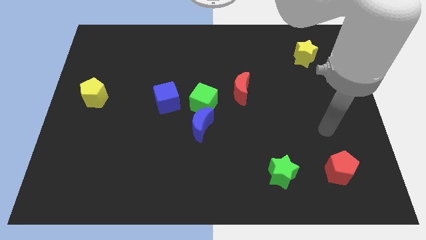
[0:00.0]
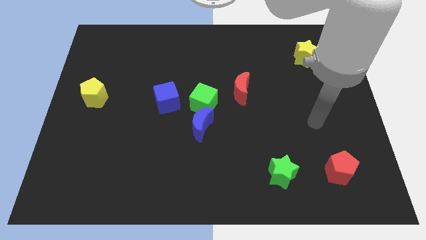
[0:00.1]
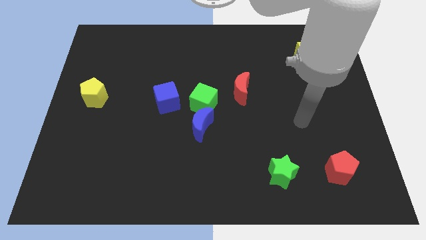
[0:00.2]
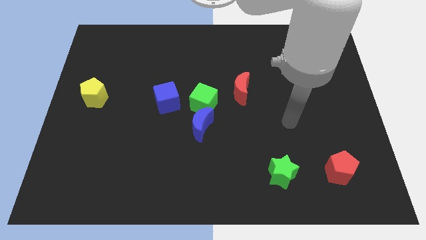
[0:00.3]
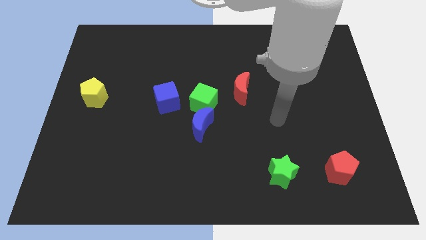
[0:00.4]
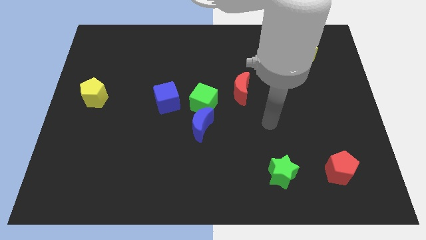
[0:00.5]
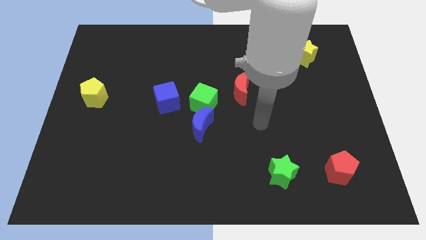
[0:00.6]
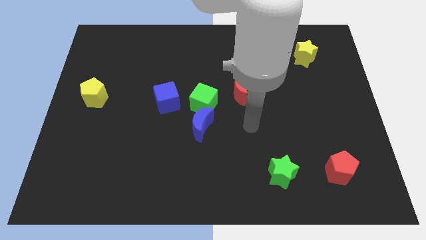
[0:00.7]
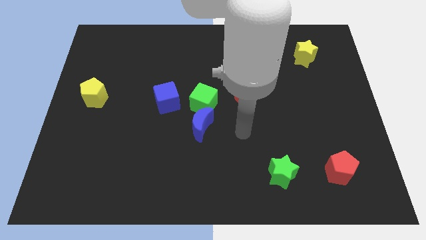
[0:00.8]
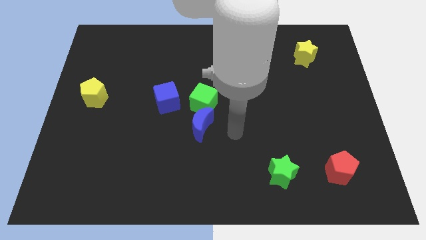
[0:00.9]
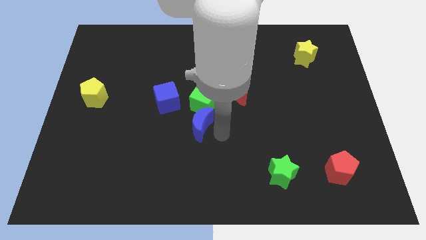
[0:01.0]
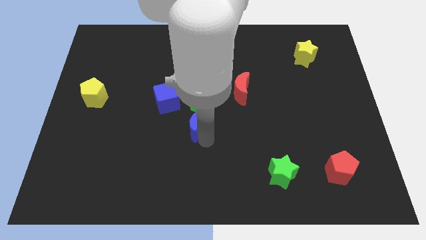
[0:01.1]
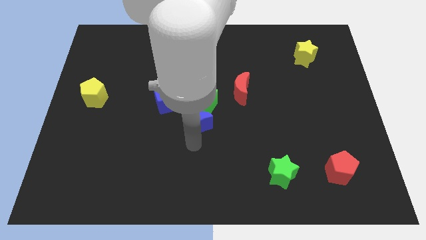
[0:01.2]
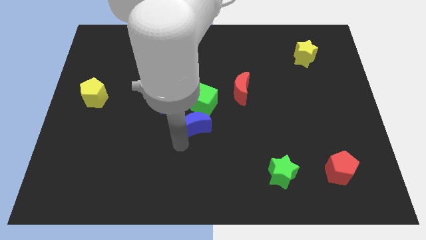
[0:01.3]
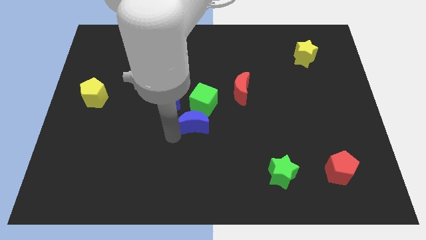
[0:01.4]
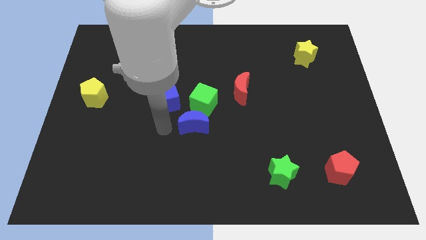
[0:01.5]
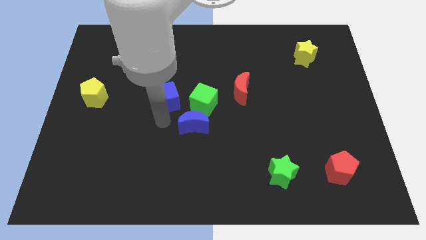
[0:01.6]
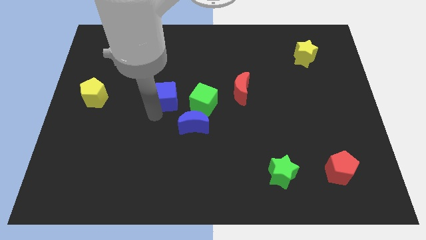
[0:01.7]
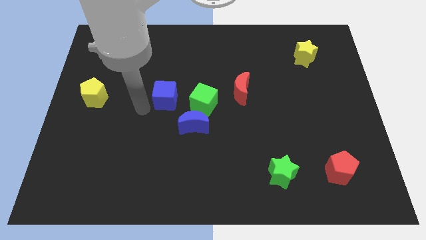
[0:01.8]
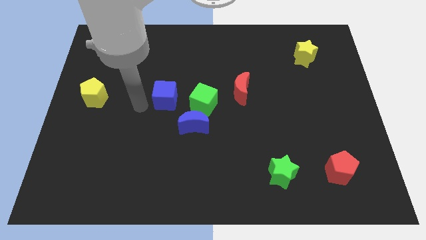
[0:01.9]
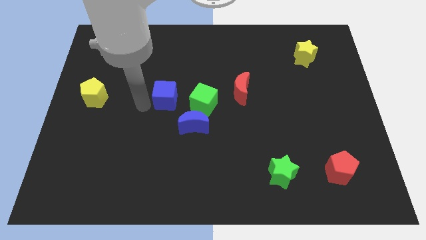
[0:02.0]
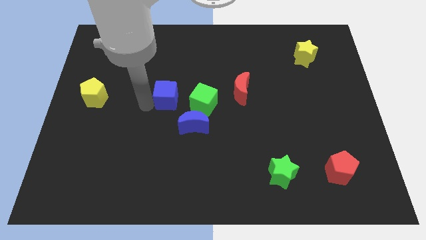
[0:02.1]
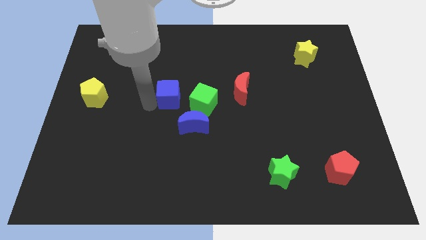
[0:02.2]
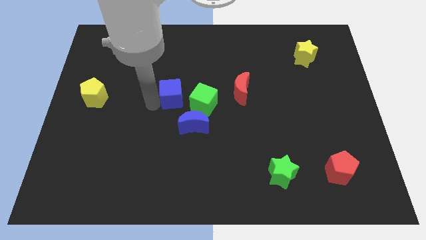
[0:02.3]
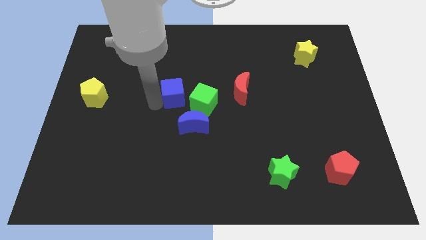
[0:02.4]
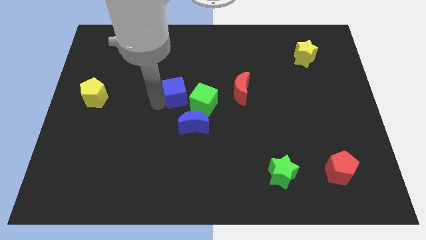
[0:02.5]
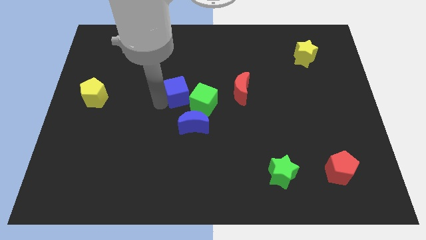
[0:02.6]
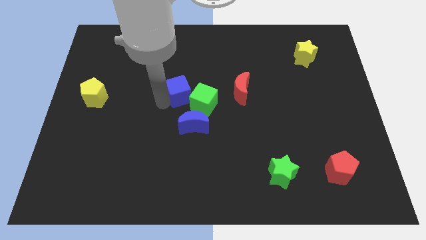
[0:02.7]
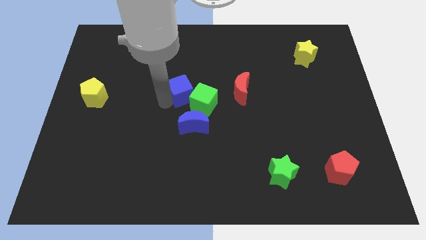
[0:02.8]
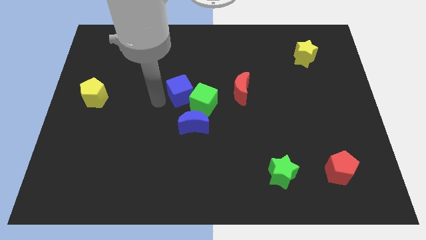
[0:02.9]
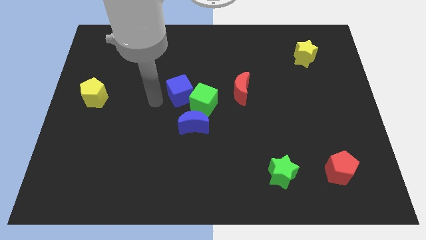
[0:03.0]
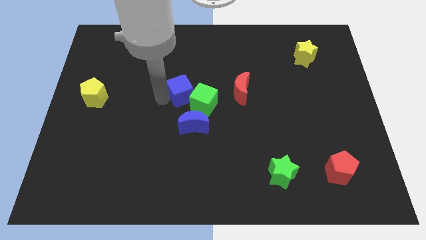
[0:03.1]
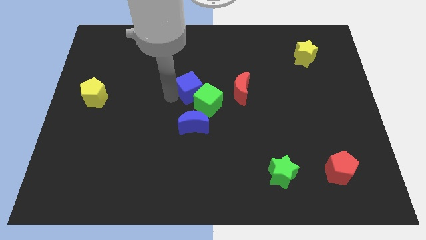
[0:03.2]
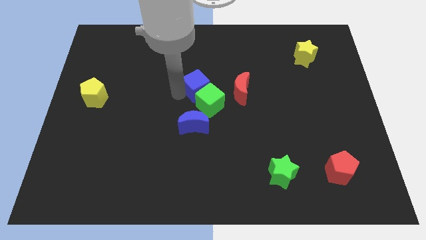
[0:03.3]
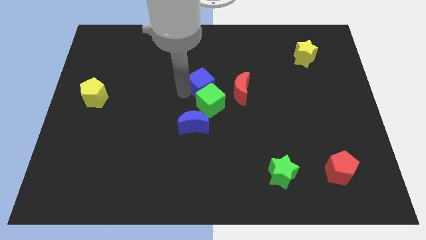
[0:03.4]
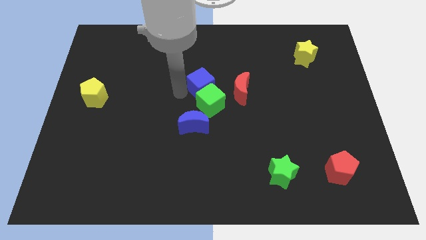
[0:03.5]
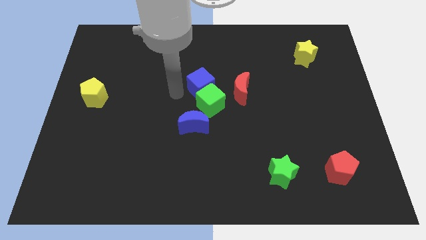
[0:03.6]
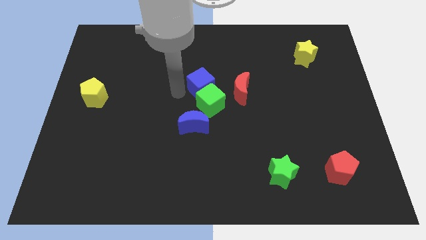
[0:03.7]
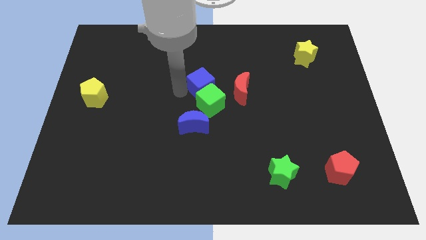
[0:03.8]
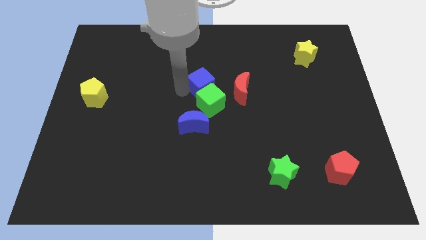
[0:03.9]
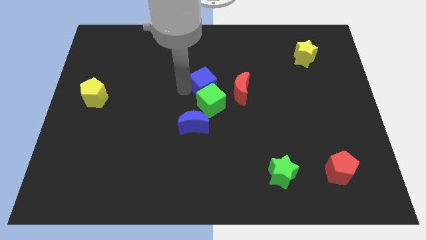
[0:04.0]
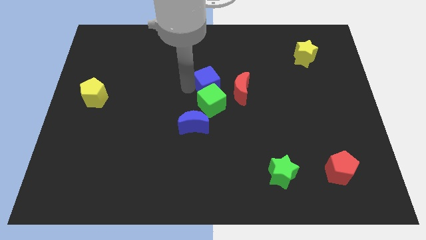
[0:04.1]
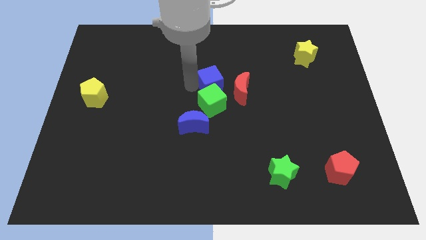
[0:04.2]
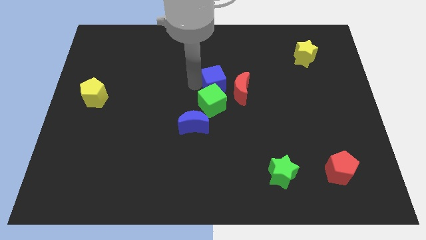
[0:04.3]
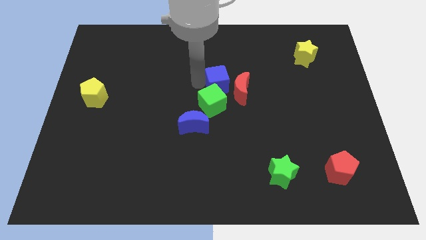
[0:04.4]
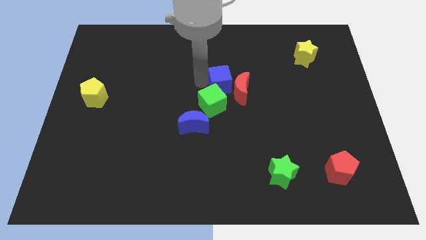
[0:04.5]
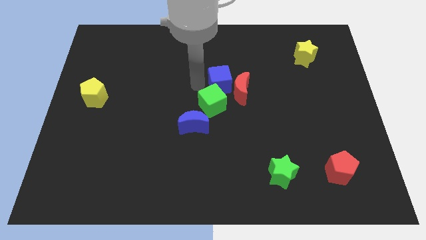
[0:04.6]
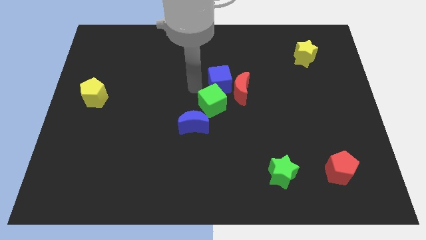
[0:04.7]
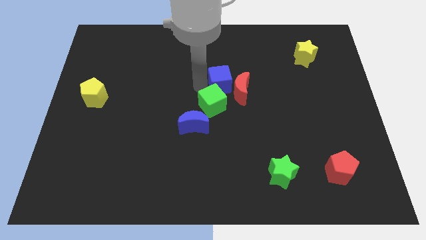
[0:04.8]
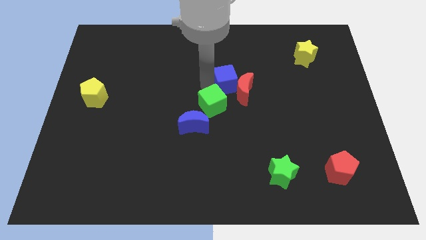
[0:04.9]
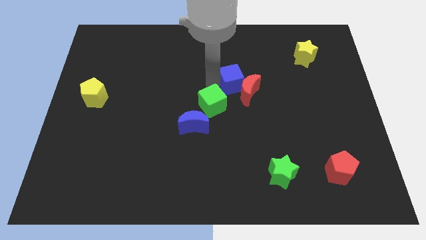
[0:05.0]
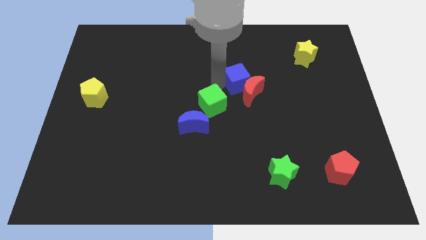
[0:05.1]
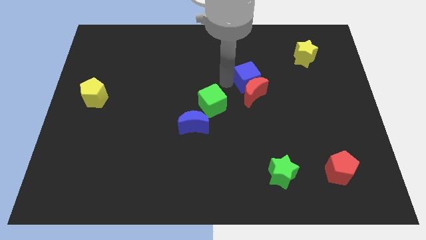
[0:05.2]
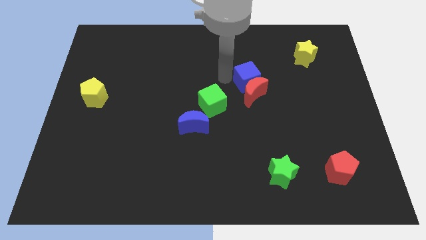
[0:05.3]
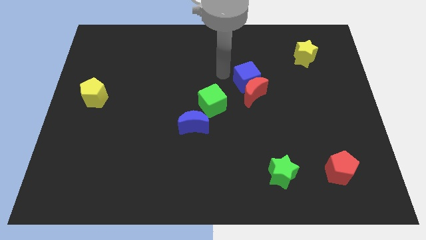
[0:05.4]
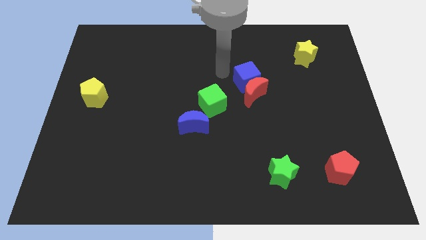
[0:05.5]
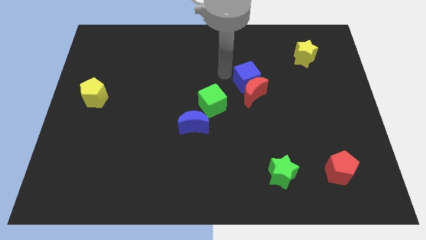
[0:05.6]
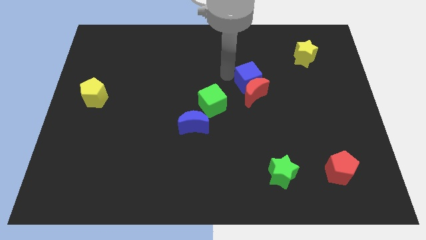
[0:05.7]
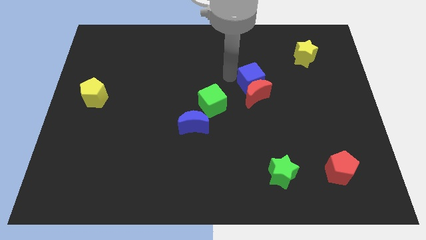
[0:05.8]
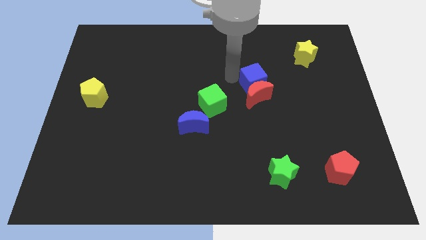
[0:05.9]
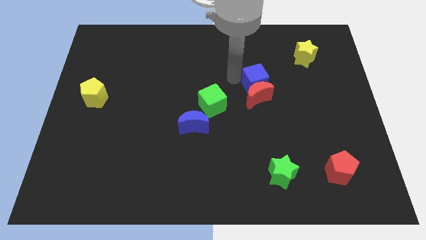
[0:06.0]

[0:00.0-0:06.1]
move the blue cube to the right

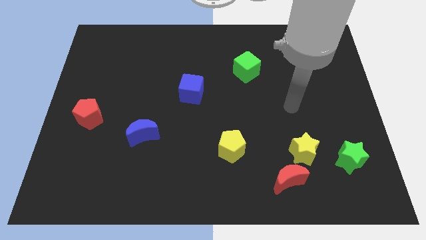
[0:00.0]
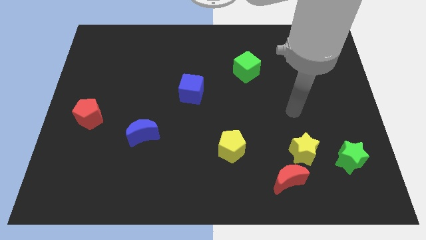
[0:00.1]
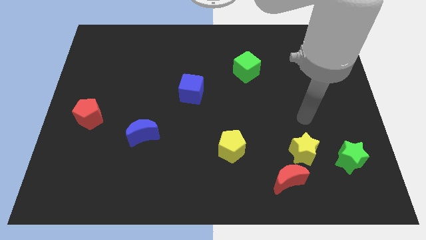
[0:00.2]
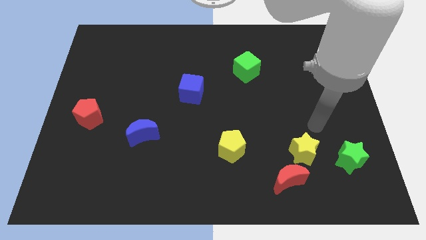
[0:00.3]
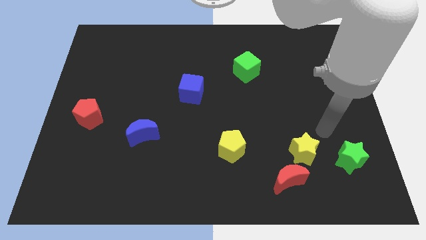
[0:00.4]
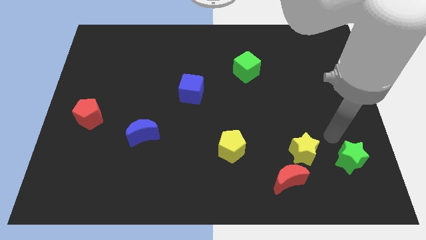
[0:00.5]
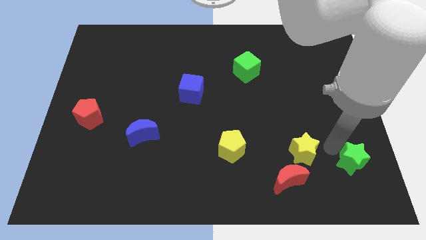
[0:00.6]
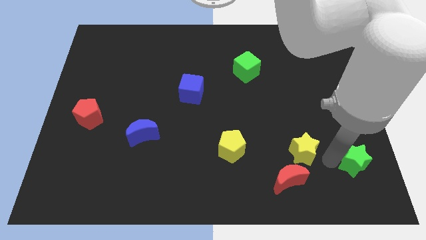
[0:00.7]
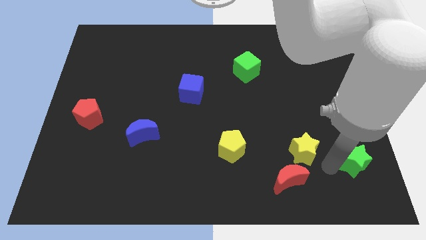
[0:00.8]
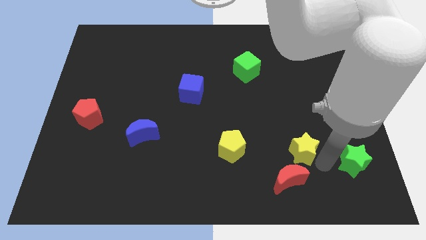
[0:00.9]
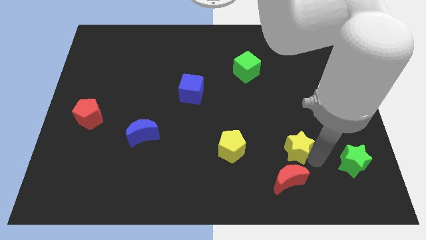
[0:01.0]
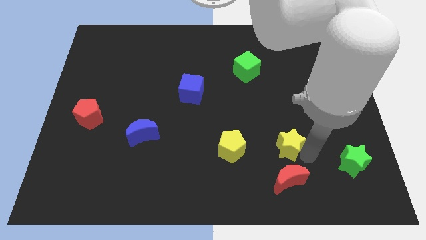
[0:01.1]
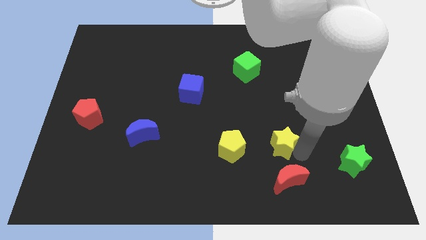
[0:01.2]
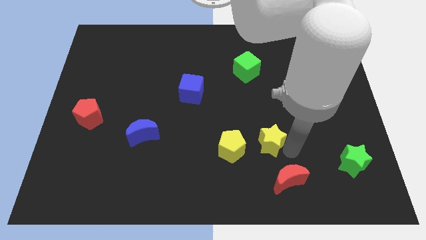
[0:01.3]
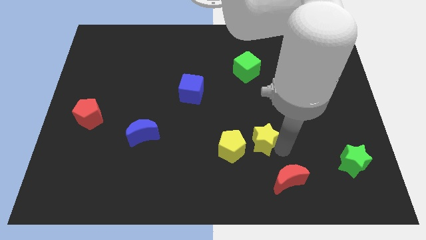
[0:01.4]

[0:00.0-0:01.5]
slide the yellow star up and to the left somewhat

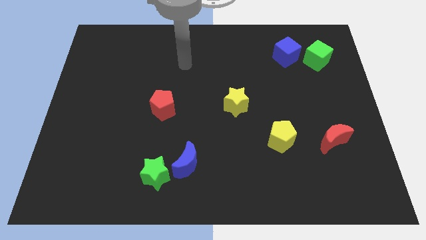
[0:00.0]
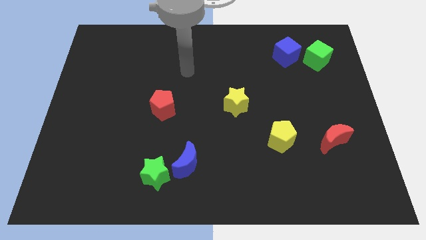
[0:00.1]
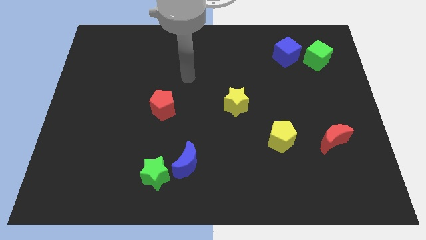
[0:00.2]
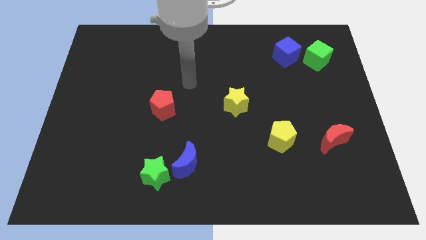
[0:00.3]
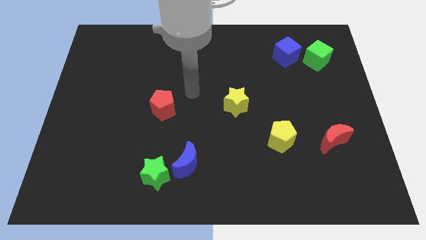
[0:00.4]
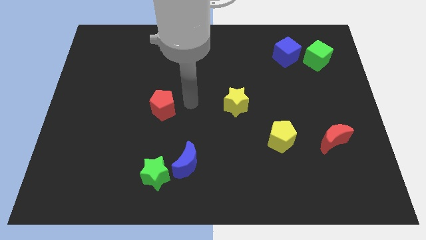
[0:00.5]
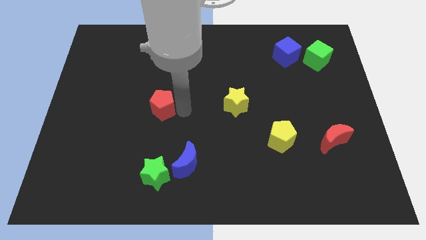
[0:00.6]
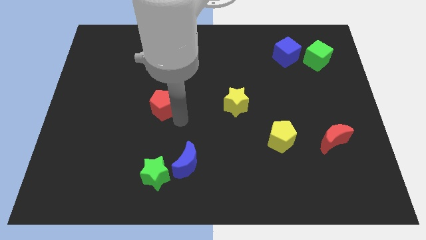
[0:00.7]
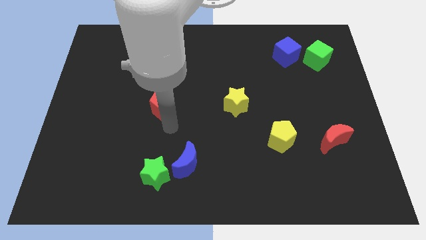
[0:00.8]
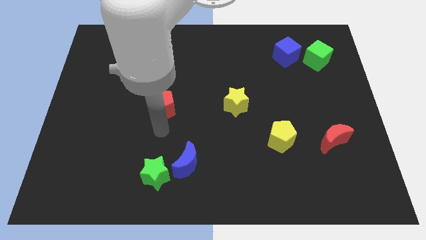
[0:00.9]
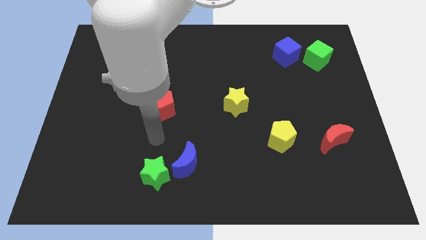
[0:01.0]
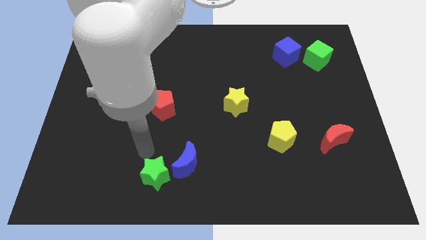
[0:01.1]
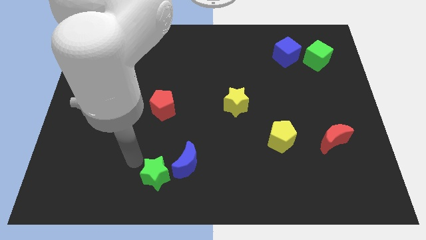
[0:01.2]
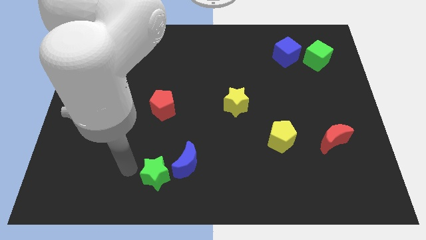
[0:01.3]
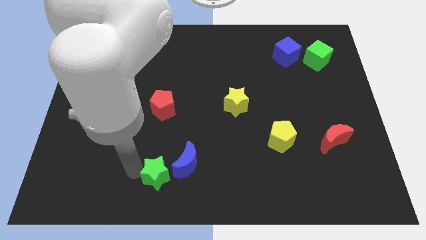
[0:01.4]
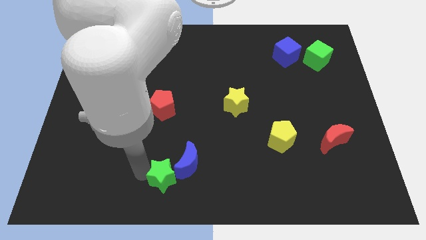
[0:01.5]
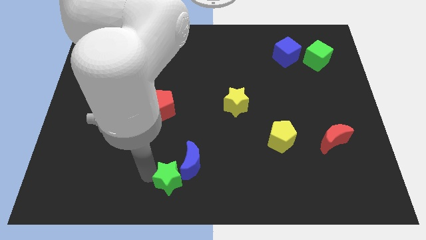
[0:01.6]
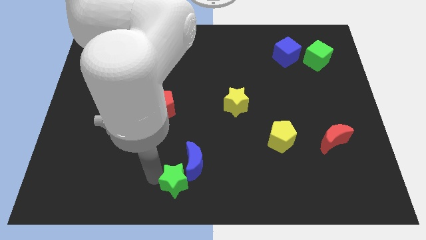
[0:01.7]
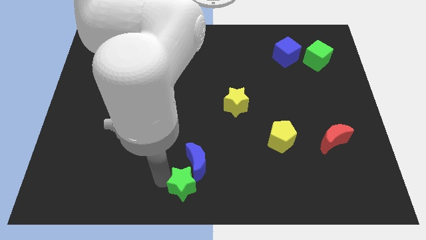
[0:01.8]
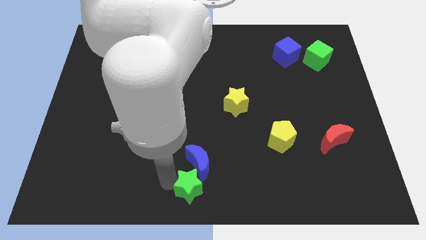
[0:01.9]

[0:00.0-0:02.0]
slightly slide the green star to the right
